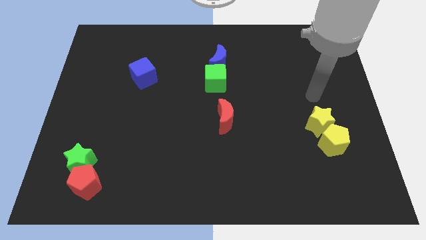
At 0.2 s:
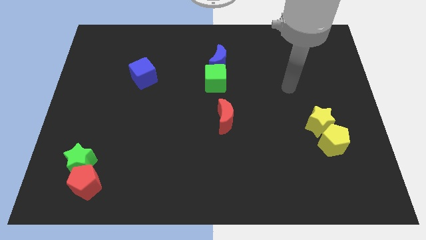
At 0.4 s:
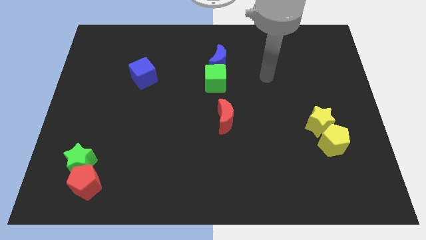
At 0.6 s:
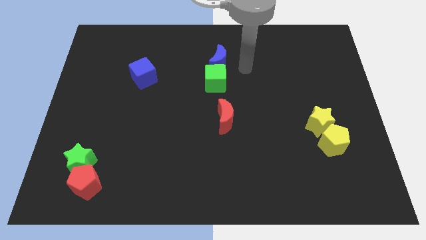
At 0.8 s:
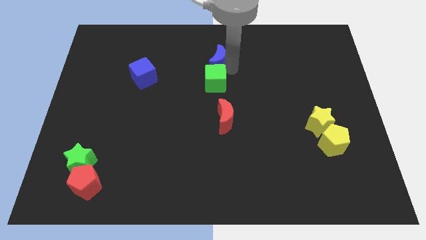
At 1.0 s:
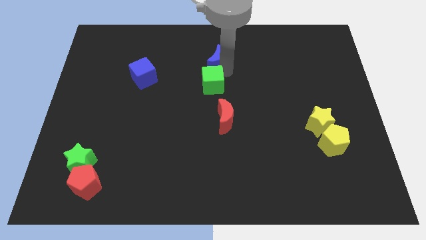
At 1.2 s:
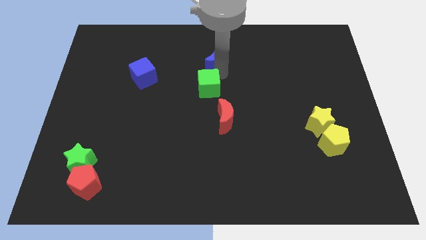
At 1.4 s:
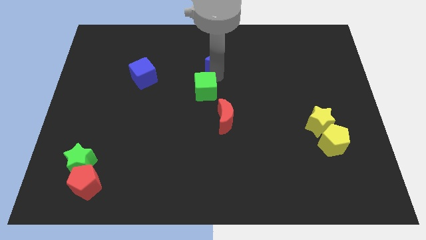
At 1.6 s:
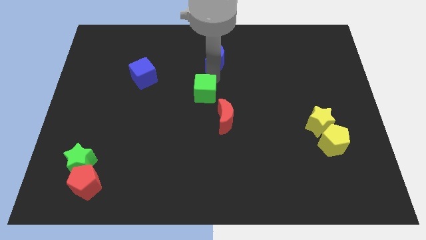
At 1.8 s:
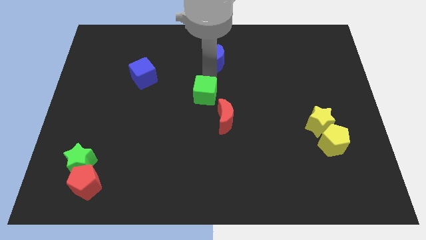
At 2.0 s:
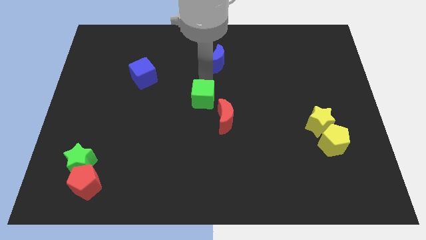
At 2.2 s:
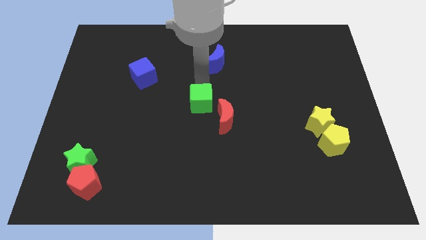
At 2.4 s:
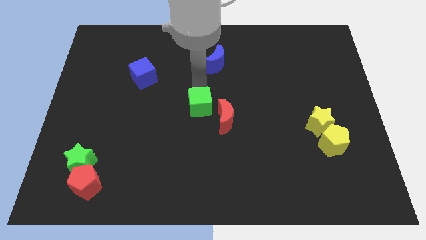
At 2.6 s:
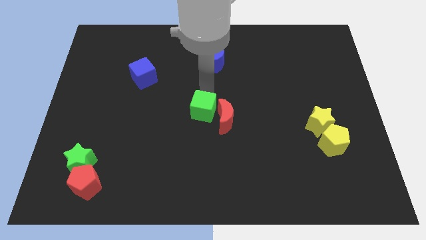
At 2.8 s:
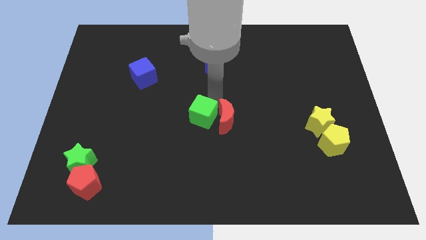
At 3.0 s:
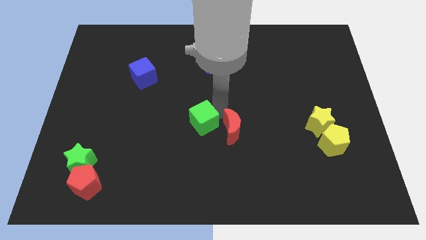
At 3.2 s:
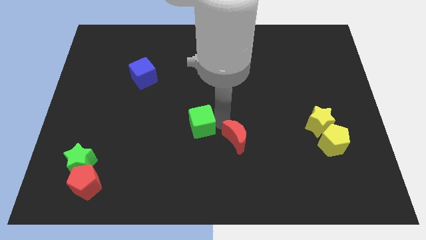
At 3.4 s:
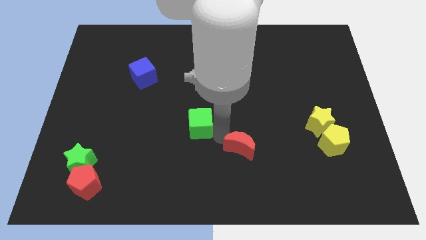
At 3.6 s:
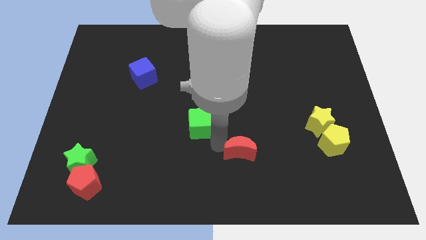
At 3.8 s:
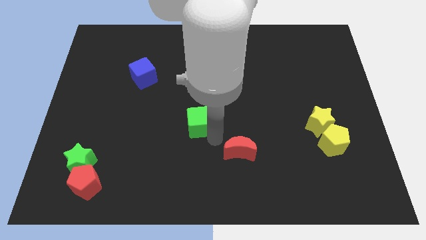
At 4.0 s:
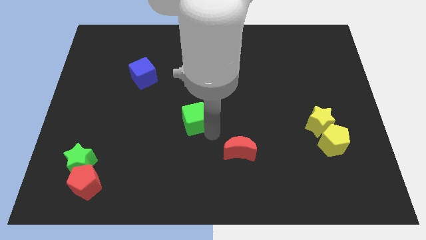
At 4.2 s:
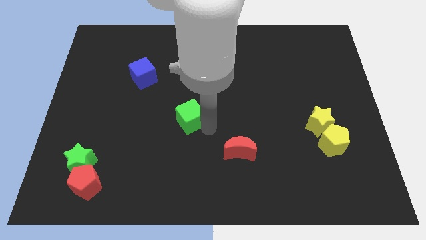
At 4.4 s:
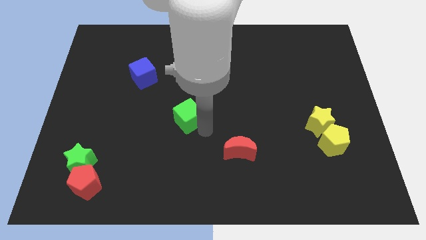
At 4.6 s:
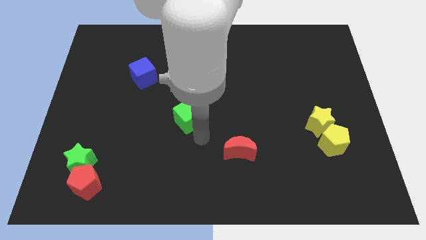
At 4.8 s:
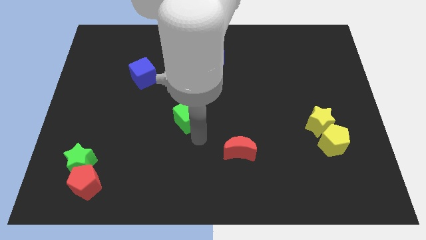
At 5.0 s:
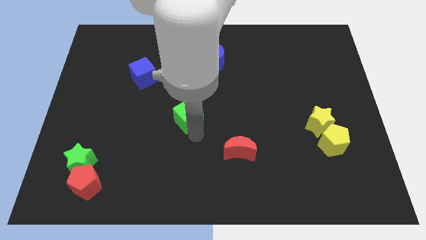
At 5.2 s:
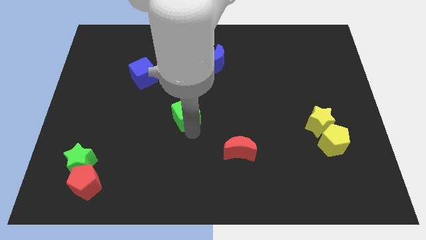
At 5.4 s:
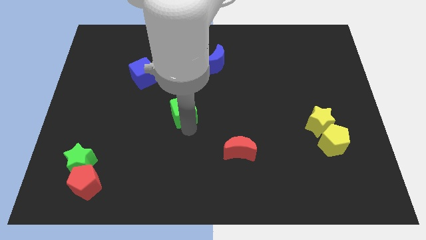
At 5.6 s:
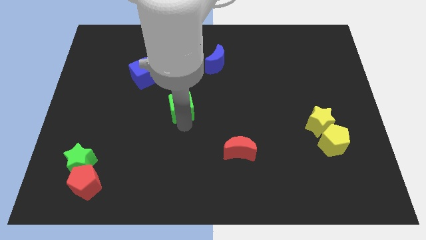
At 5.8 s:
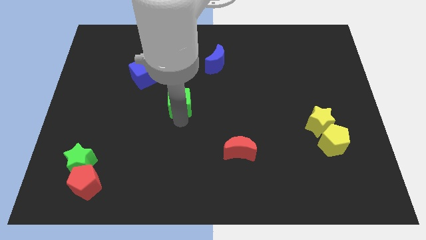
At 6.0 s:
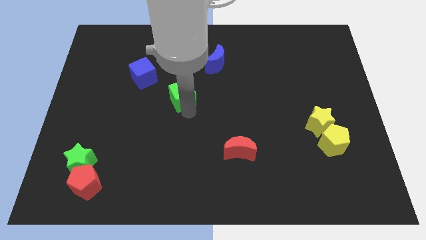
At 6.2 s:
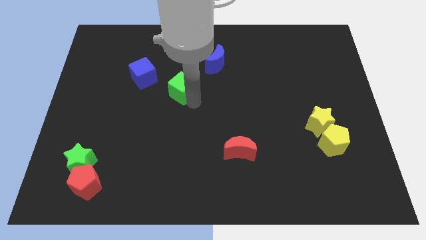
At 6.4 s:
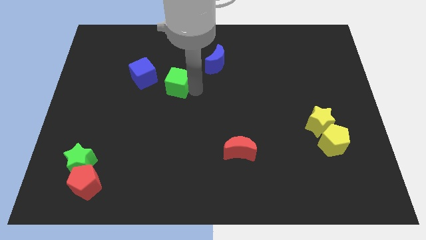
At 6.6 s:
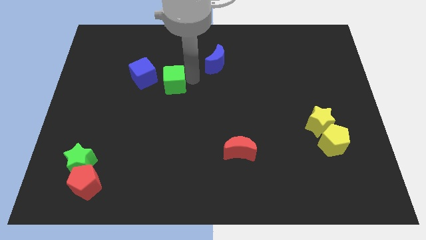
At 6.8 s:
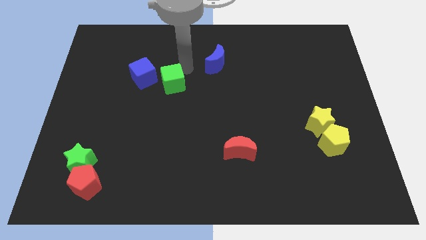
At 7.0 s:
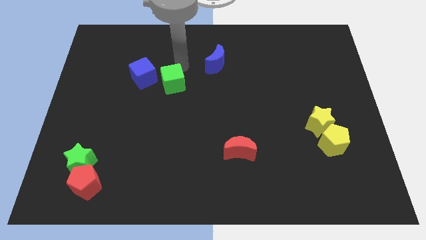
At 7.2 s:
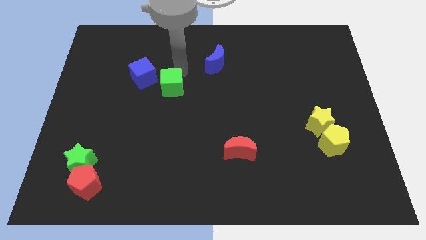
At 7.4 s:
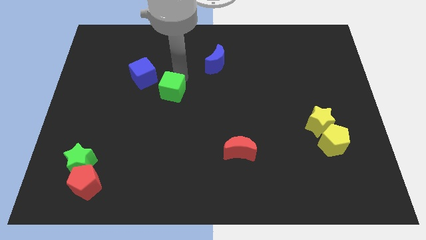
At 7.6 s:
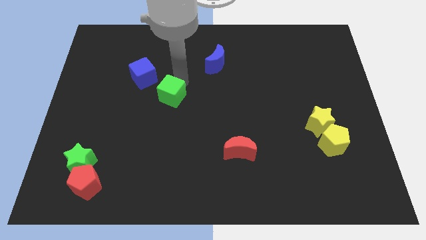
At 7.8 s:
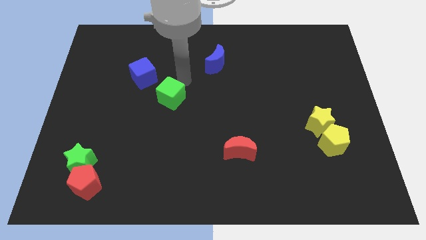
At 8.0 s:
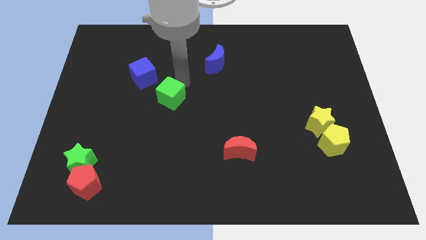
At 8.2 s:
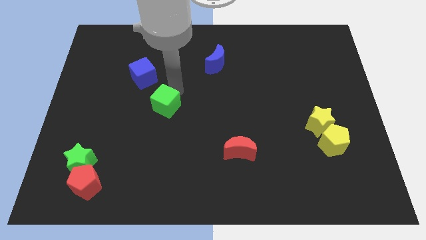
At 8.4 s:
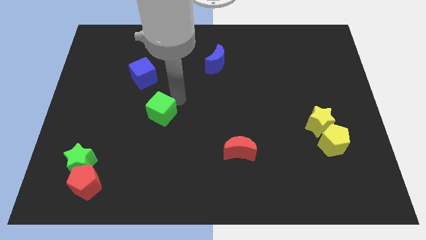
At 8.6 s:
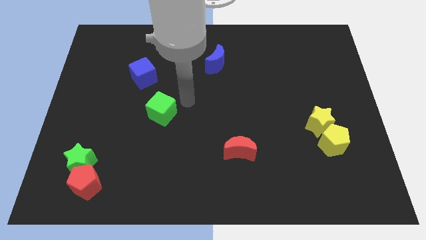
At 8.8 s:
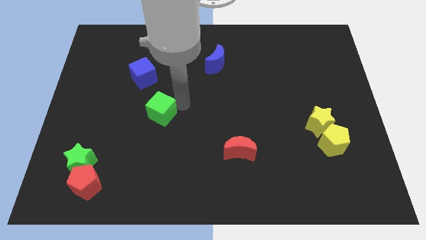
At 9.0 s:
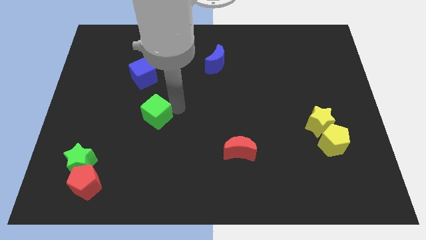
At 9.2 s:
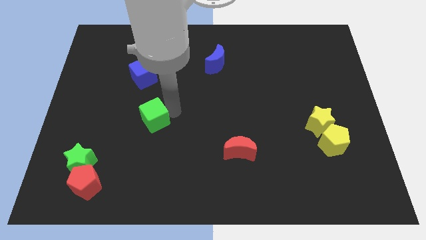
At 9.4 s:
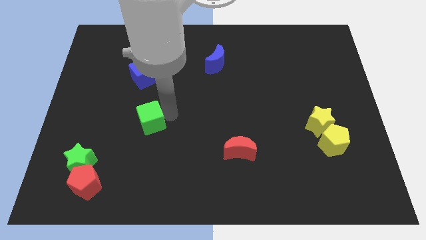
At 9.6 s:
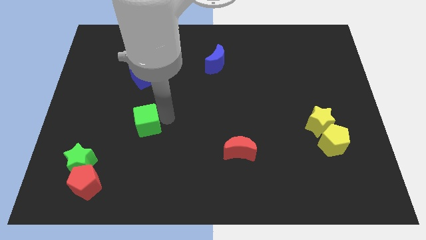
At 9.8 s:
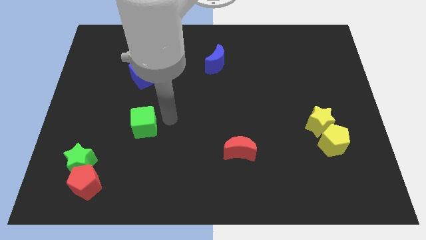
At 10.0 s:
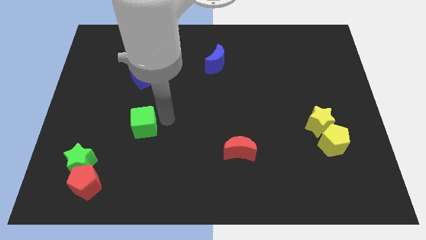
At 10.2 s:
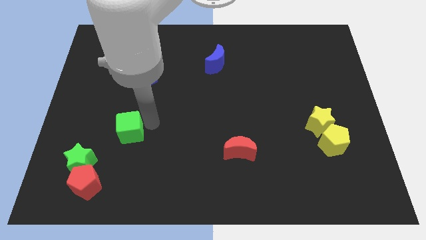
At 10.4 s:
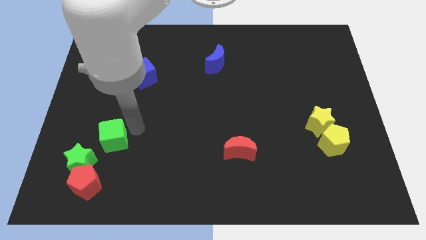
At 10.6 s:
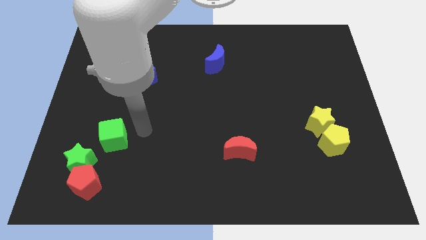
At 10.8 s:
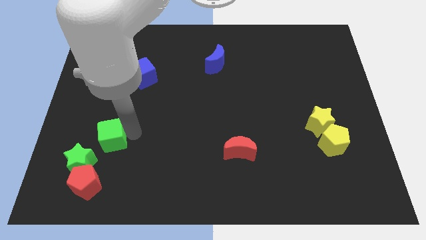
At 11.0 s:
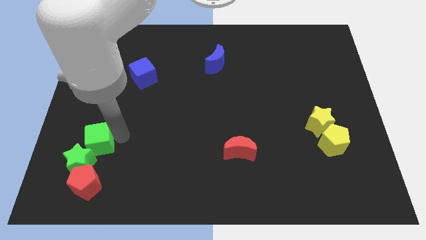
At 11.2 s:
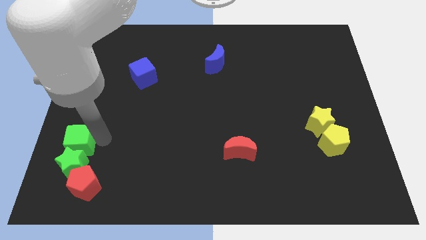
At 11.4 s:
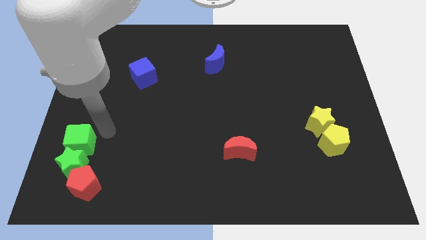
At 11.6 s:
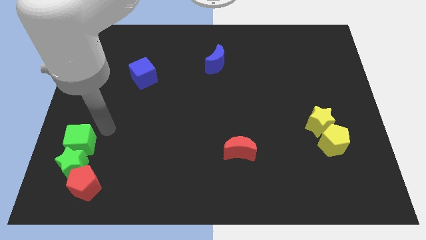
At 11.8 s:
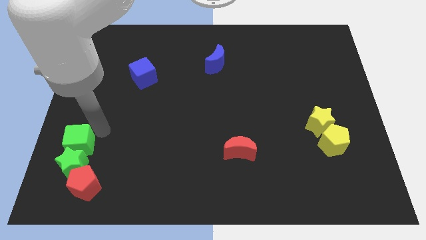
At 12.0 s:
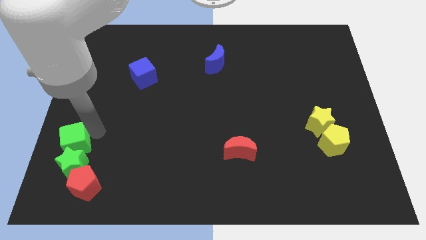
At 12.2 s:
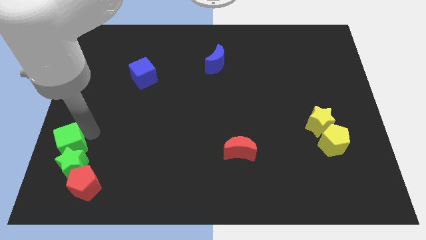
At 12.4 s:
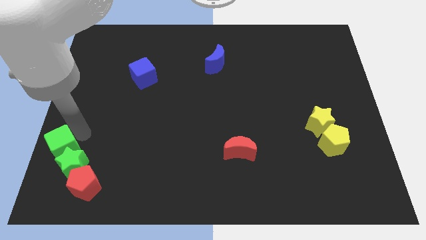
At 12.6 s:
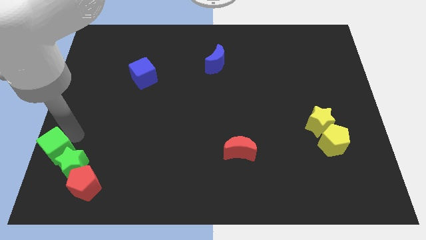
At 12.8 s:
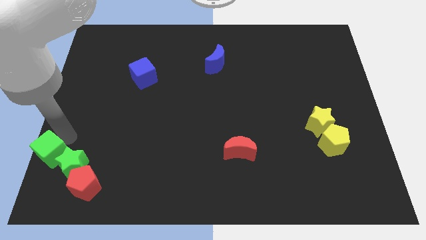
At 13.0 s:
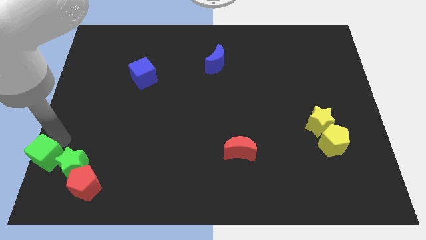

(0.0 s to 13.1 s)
move the green cube to the lower left corner
